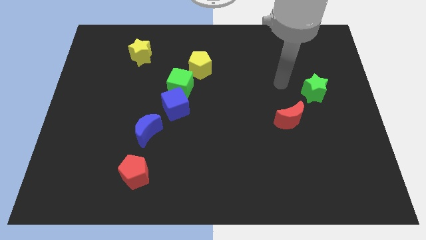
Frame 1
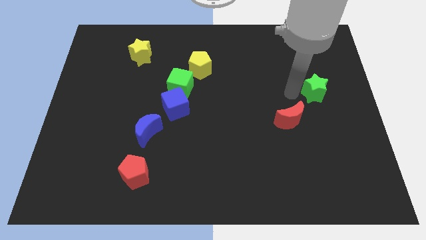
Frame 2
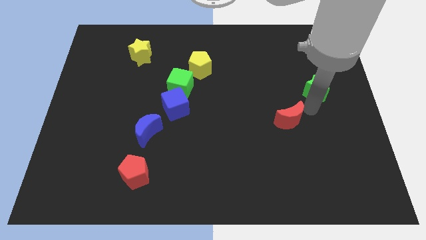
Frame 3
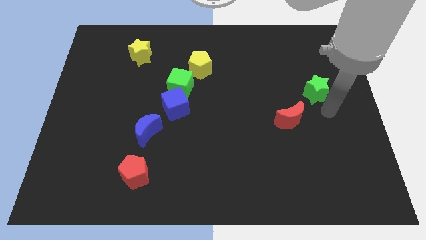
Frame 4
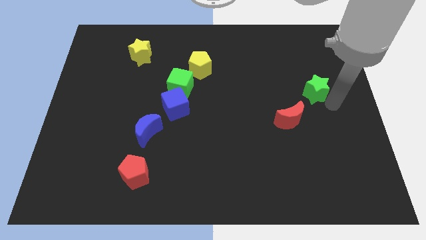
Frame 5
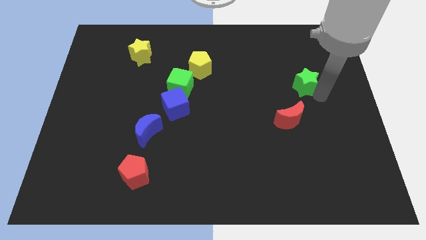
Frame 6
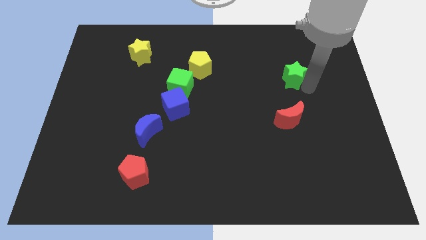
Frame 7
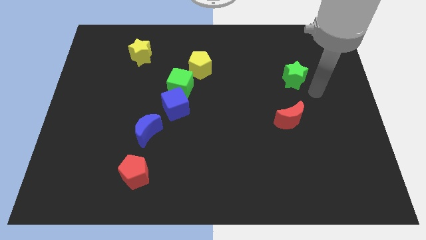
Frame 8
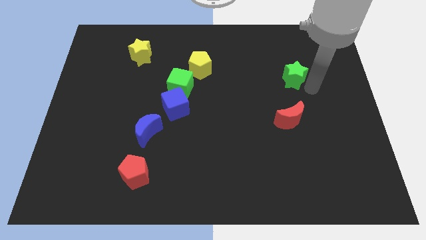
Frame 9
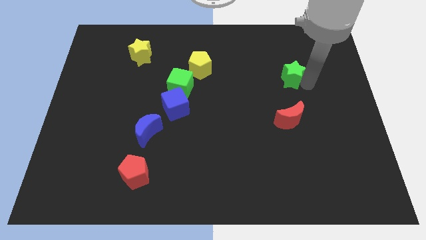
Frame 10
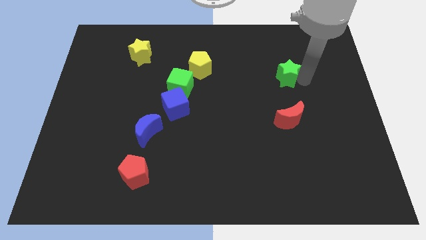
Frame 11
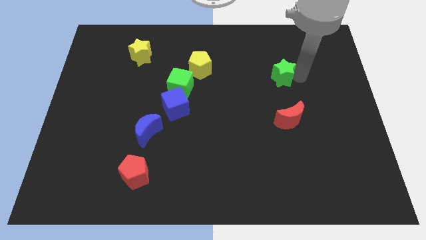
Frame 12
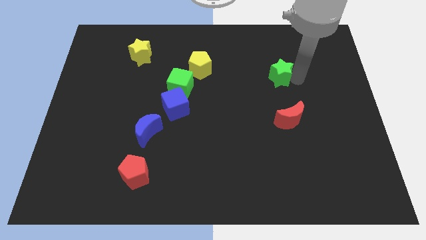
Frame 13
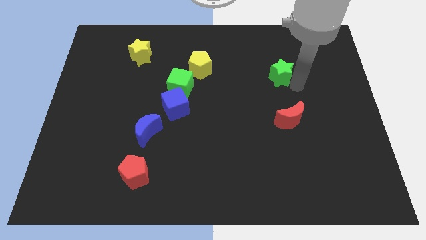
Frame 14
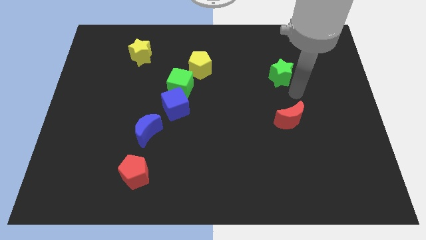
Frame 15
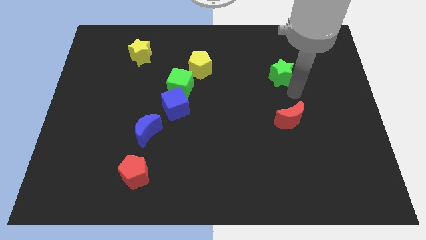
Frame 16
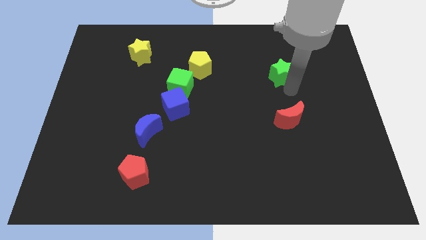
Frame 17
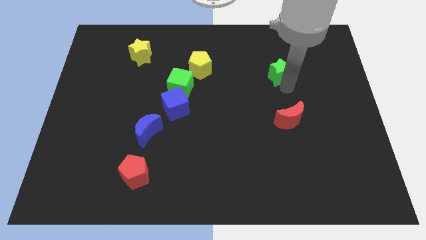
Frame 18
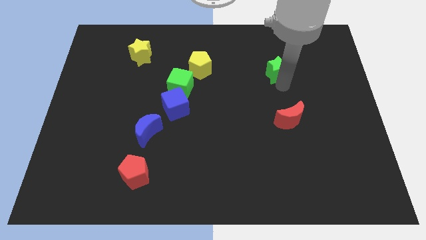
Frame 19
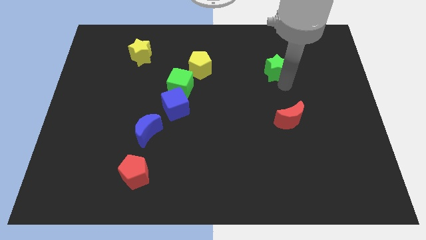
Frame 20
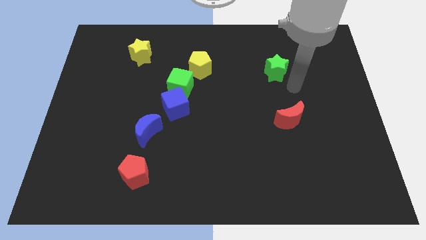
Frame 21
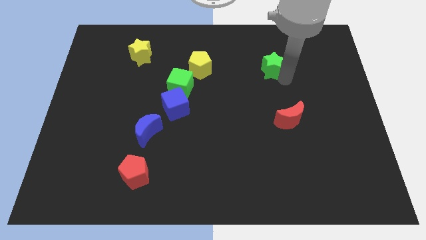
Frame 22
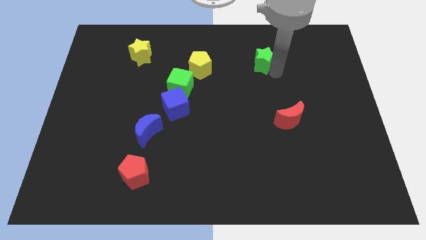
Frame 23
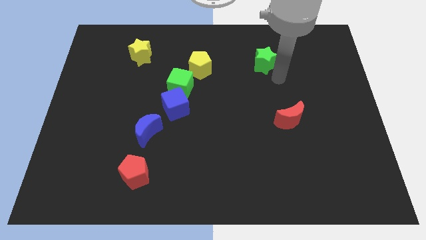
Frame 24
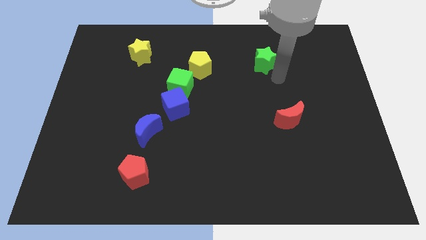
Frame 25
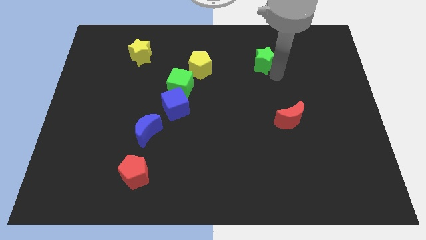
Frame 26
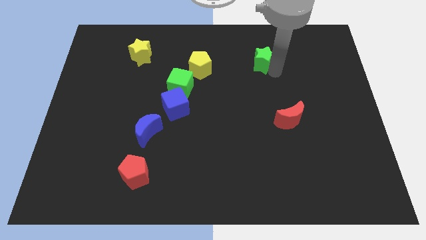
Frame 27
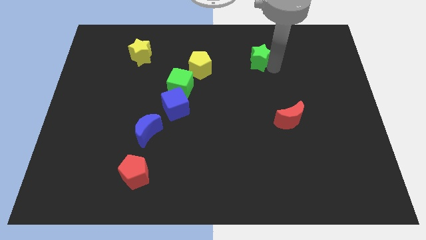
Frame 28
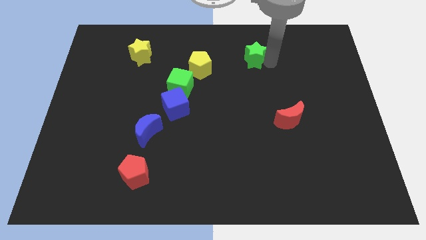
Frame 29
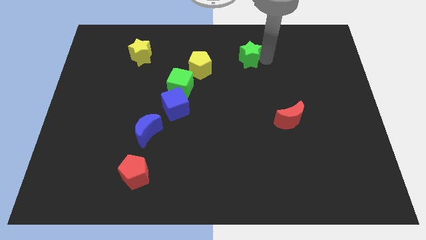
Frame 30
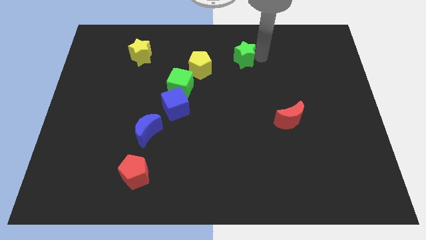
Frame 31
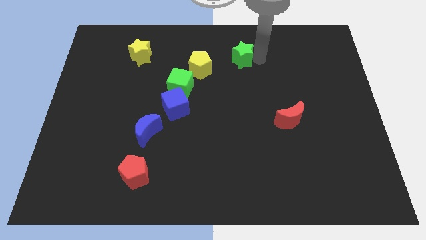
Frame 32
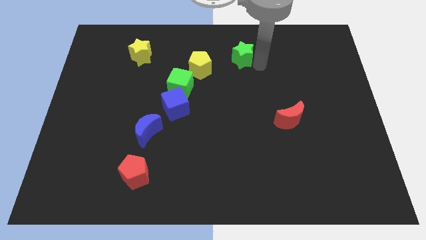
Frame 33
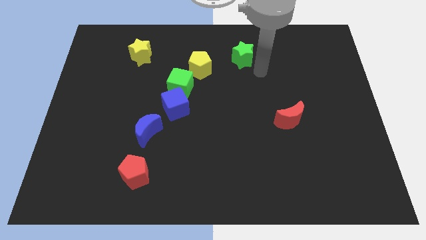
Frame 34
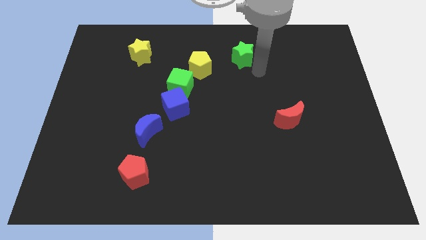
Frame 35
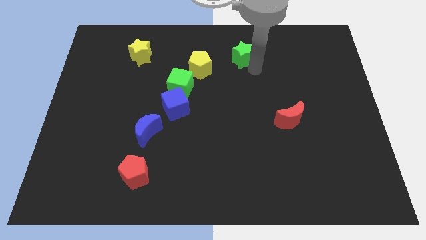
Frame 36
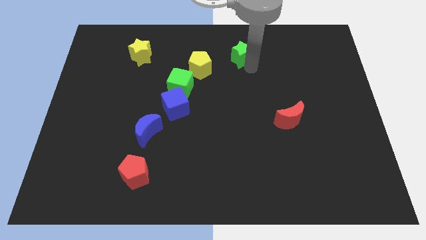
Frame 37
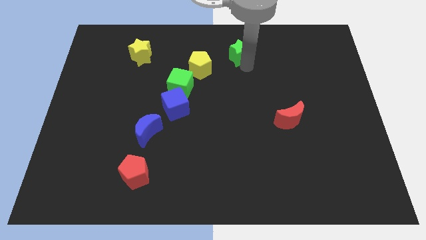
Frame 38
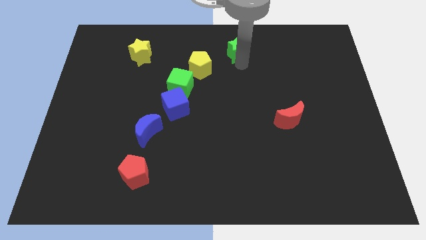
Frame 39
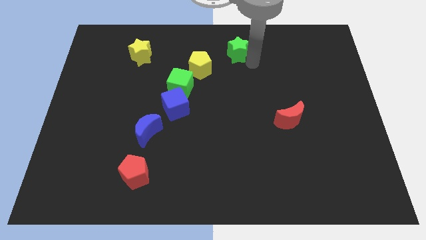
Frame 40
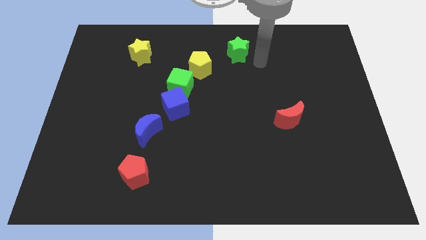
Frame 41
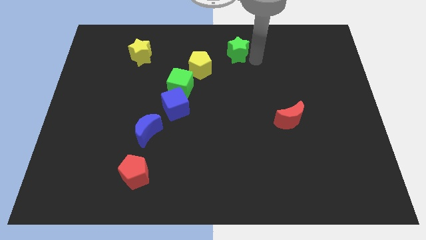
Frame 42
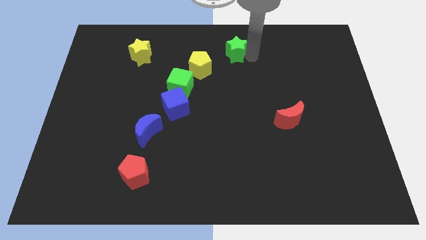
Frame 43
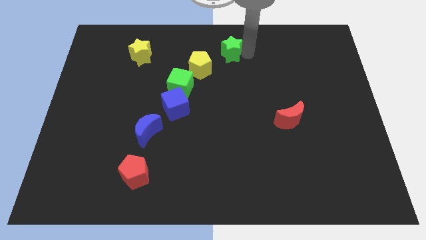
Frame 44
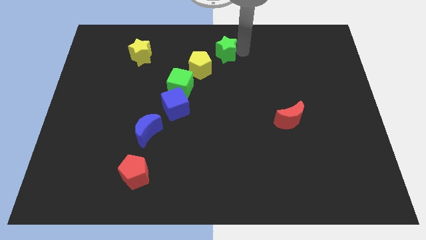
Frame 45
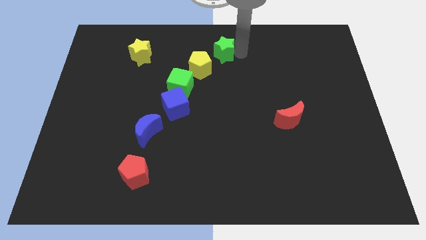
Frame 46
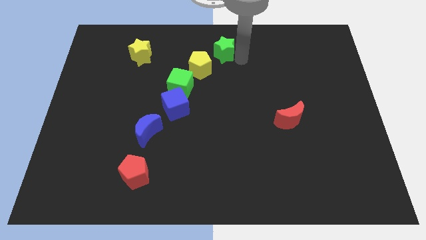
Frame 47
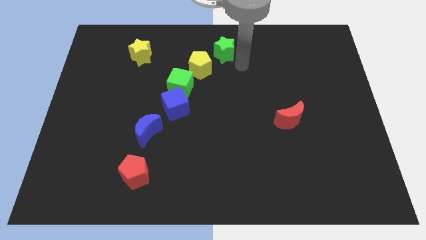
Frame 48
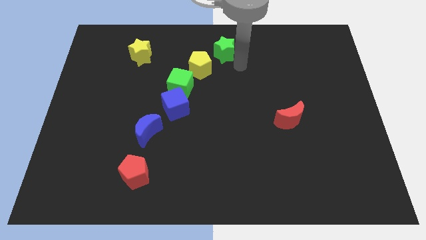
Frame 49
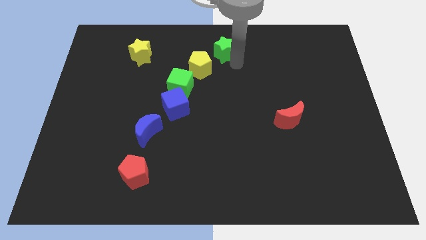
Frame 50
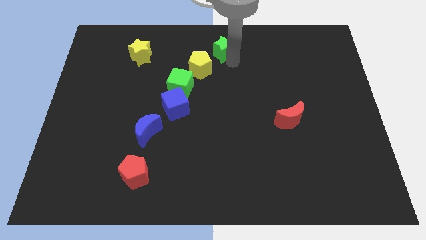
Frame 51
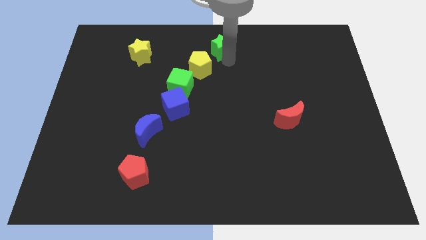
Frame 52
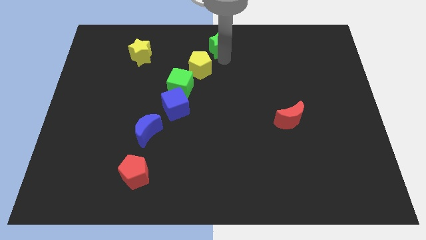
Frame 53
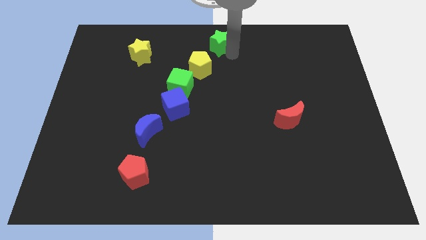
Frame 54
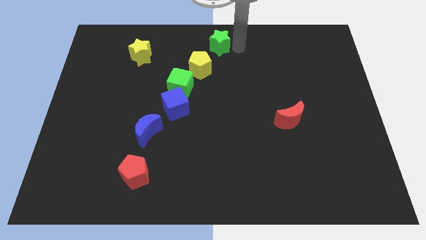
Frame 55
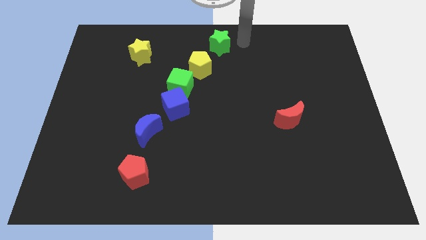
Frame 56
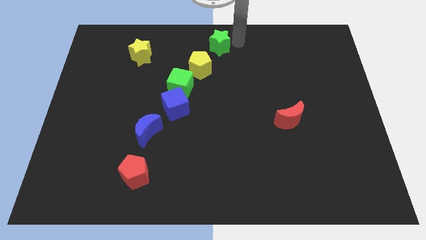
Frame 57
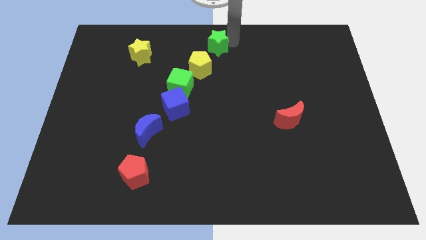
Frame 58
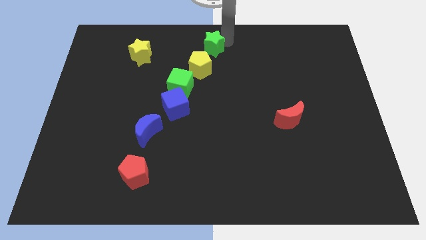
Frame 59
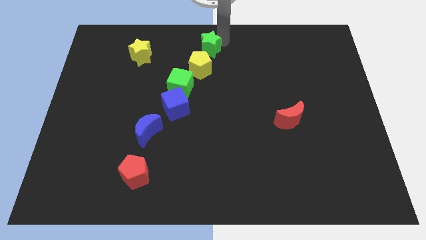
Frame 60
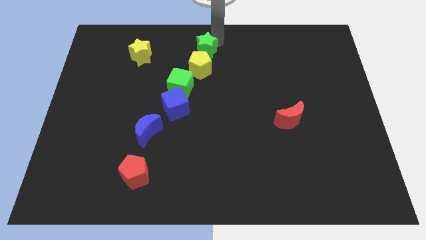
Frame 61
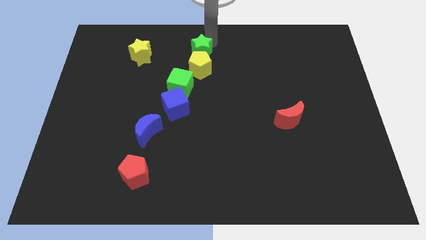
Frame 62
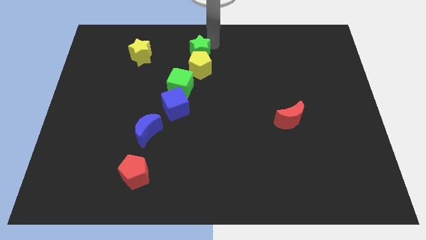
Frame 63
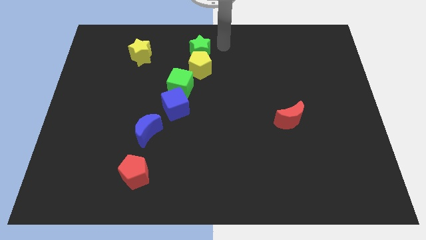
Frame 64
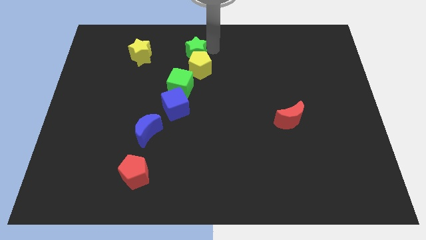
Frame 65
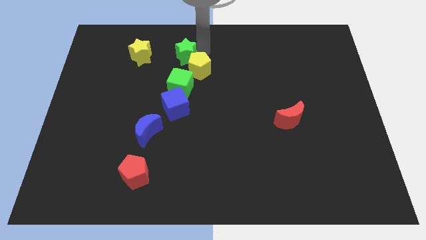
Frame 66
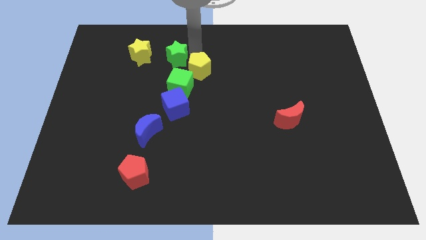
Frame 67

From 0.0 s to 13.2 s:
put the green star just left of the yellow pentagon
